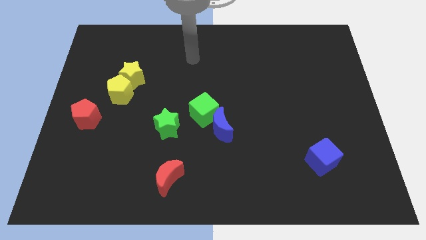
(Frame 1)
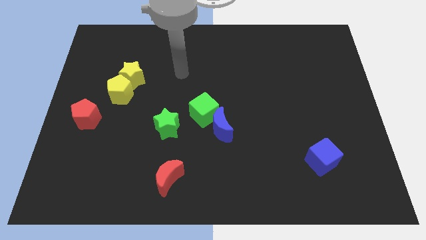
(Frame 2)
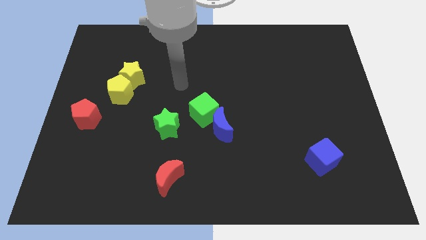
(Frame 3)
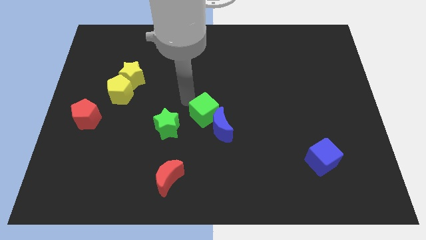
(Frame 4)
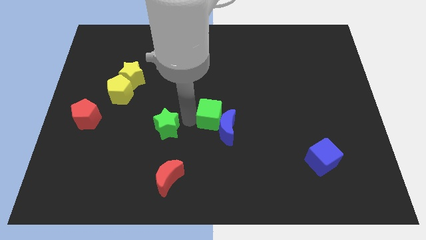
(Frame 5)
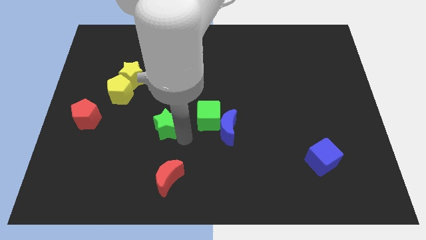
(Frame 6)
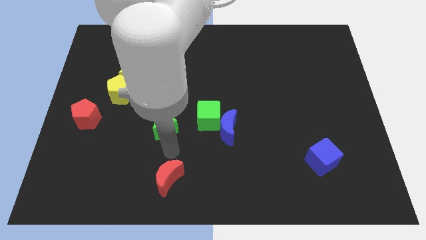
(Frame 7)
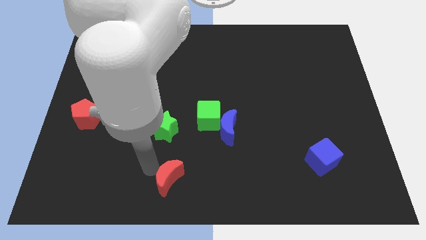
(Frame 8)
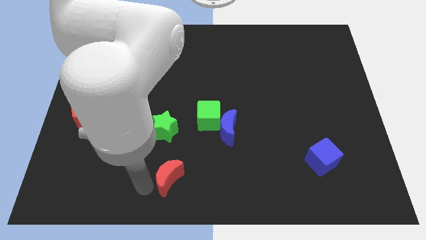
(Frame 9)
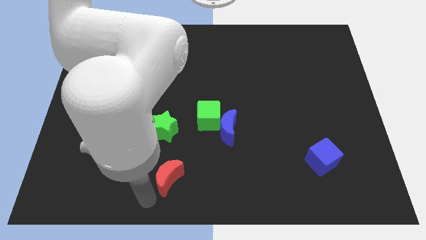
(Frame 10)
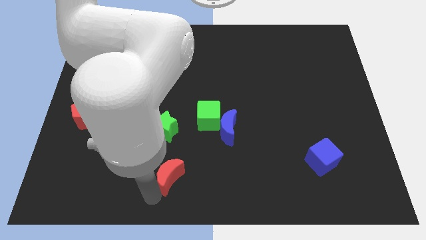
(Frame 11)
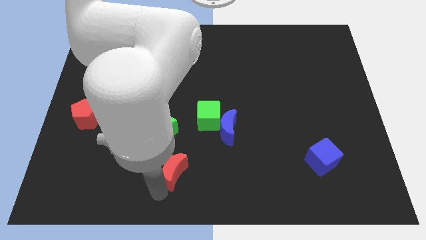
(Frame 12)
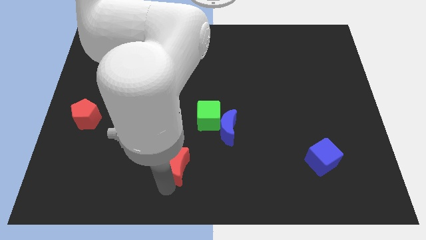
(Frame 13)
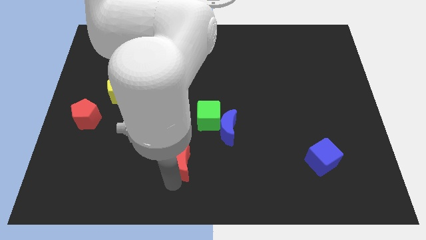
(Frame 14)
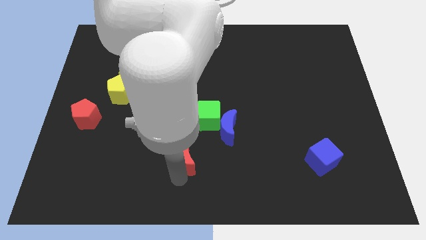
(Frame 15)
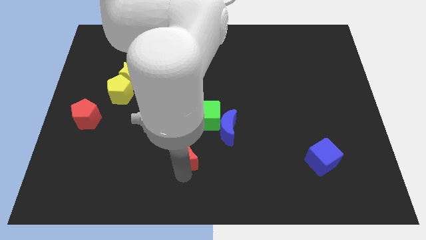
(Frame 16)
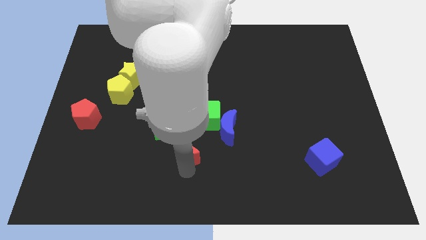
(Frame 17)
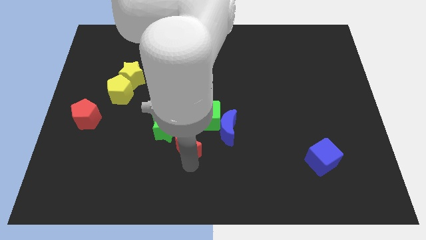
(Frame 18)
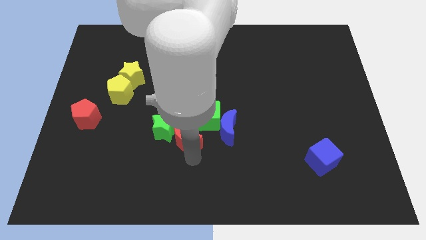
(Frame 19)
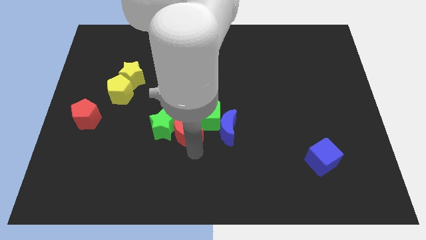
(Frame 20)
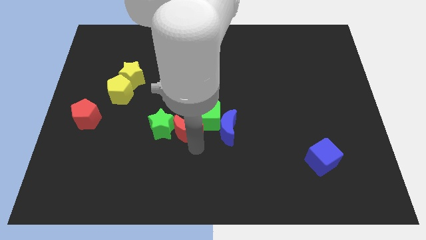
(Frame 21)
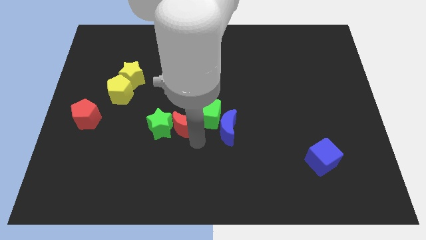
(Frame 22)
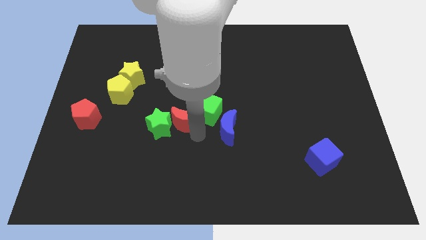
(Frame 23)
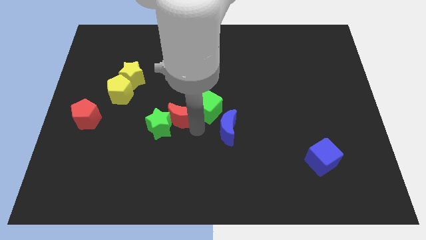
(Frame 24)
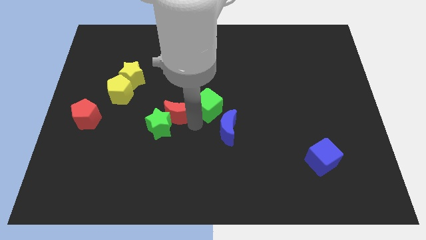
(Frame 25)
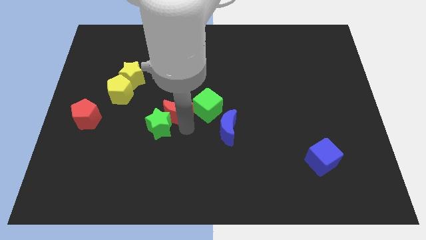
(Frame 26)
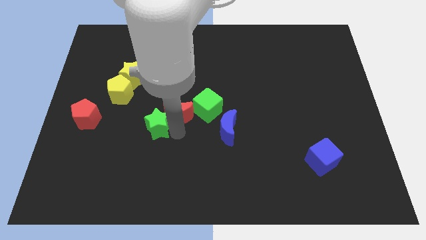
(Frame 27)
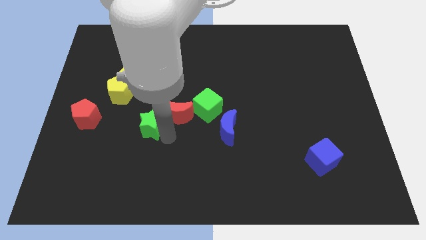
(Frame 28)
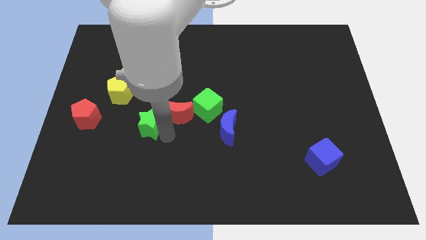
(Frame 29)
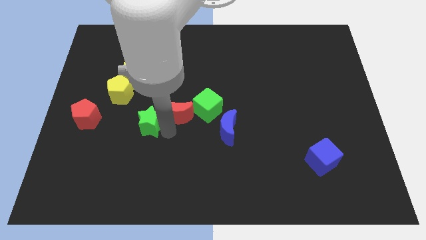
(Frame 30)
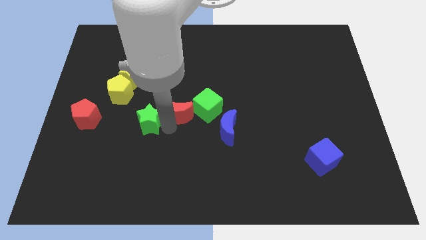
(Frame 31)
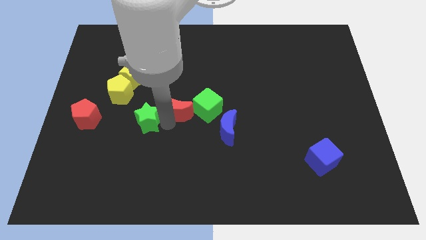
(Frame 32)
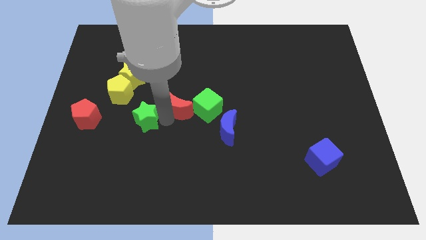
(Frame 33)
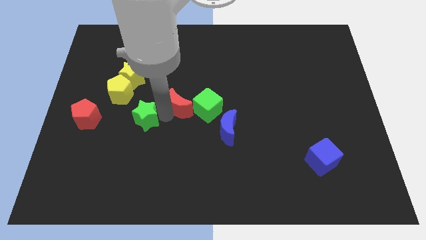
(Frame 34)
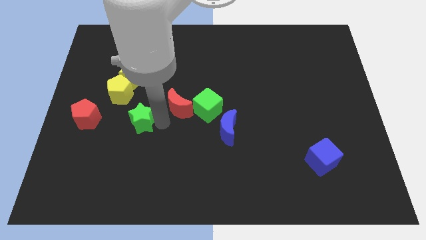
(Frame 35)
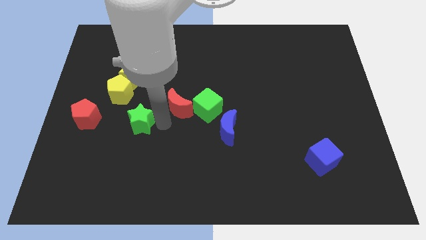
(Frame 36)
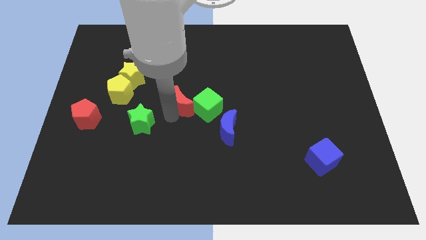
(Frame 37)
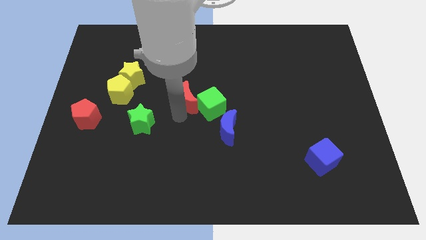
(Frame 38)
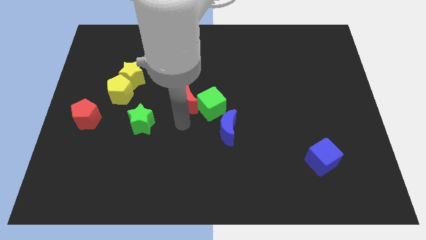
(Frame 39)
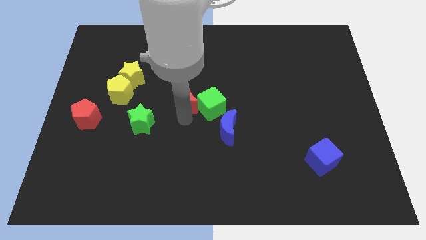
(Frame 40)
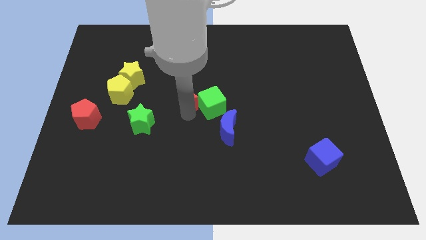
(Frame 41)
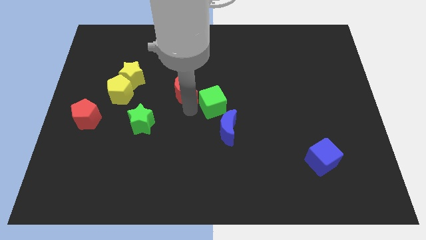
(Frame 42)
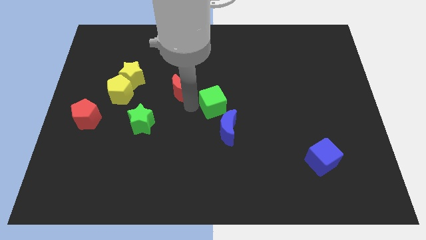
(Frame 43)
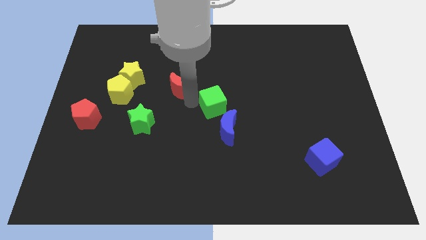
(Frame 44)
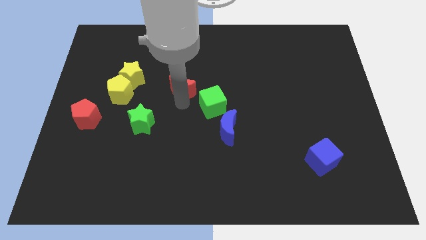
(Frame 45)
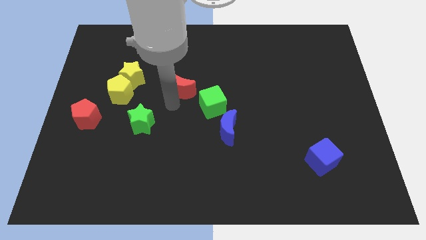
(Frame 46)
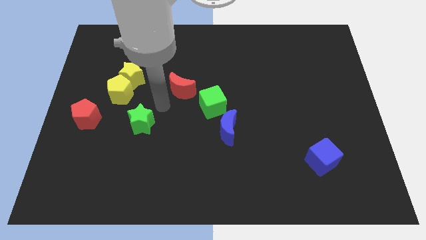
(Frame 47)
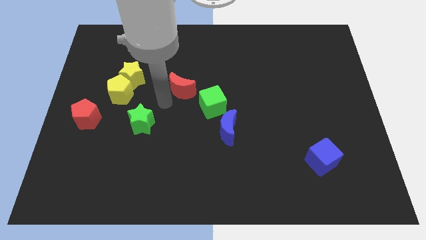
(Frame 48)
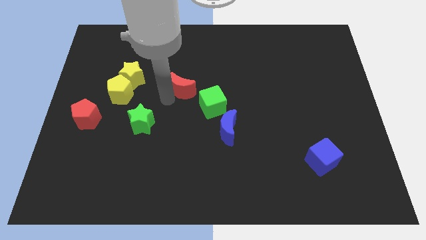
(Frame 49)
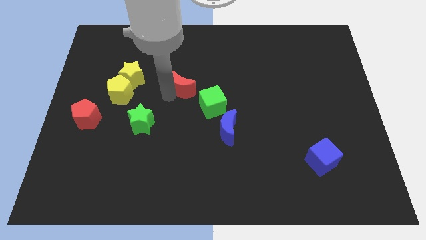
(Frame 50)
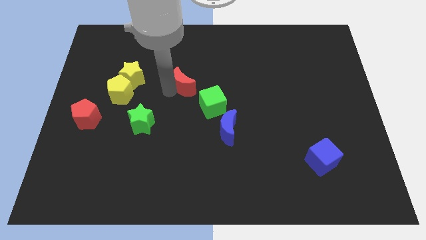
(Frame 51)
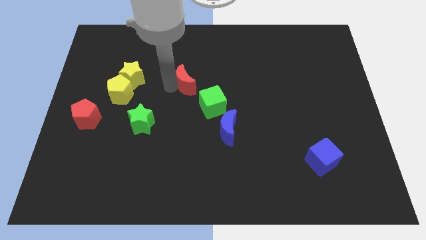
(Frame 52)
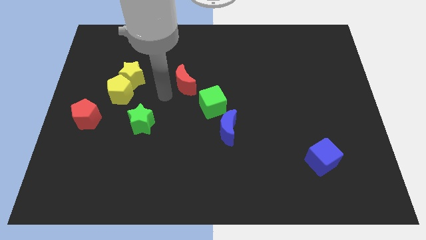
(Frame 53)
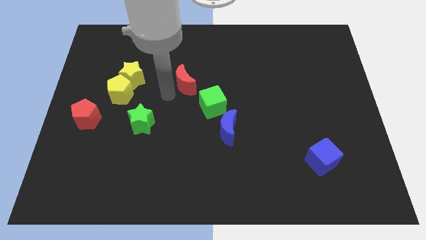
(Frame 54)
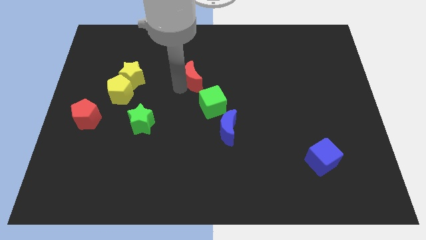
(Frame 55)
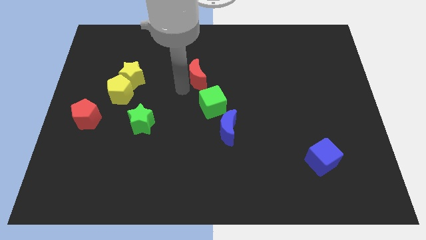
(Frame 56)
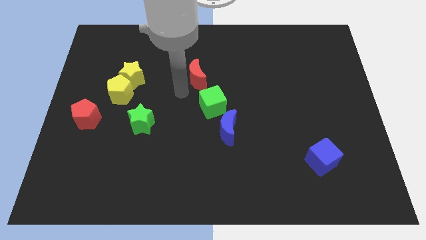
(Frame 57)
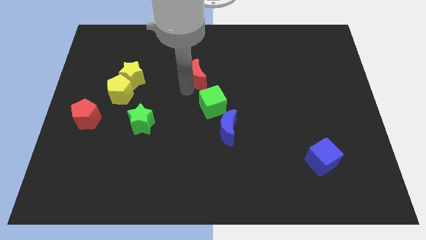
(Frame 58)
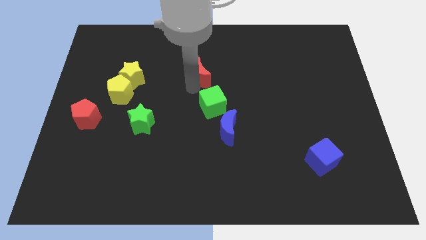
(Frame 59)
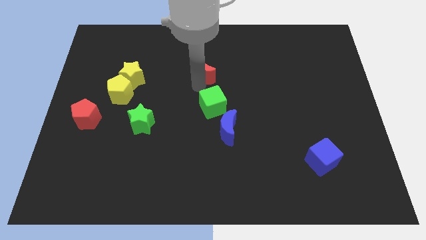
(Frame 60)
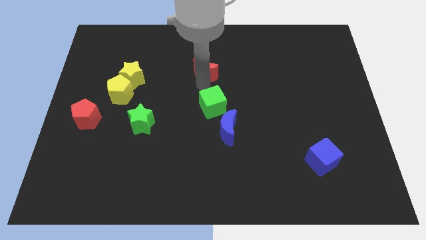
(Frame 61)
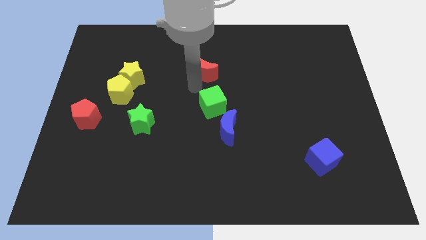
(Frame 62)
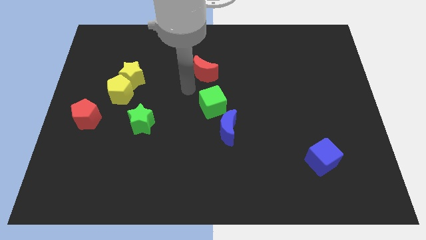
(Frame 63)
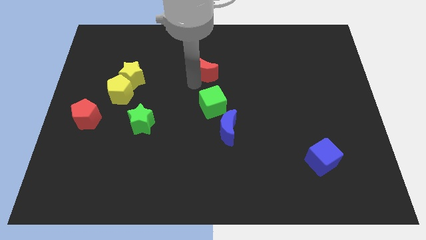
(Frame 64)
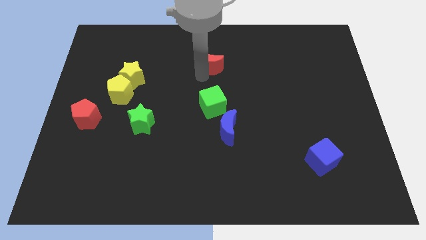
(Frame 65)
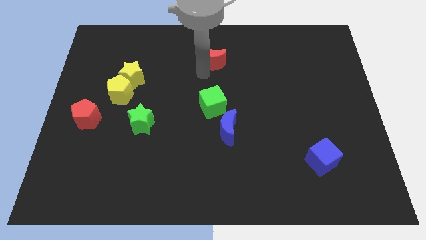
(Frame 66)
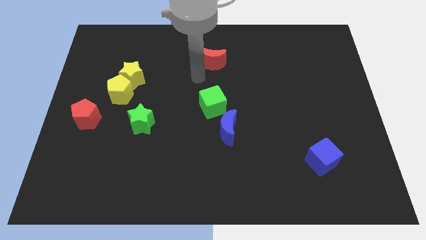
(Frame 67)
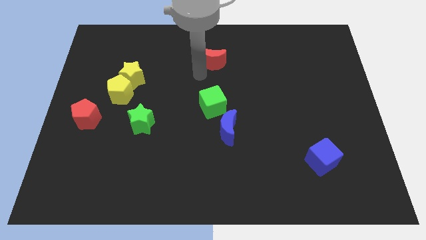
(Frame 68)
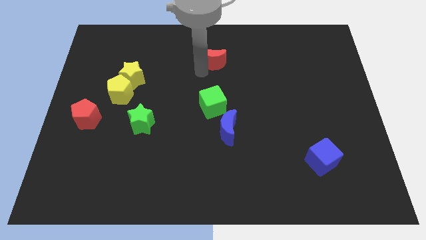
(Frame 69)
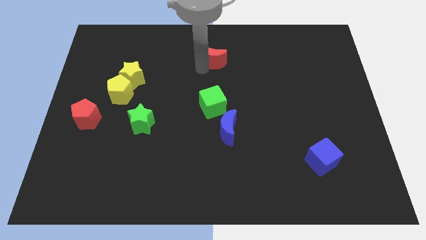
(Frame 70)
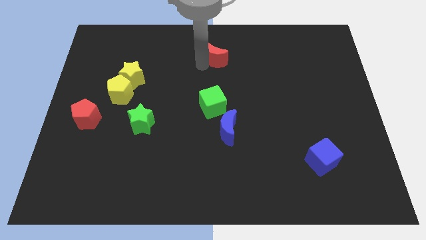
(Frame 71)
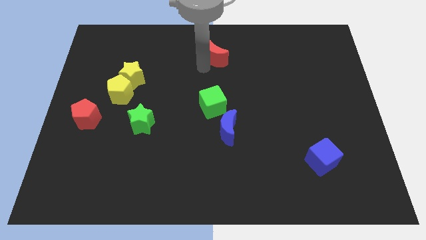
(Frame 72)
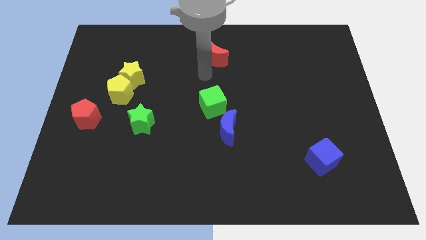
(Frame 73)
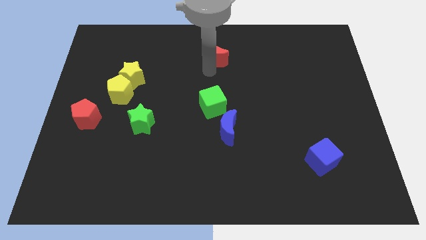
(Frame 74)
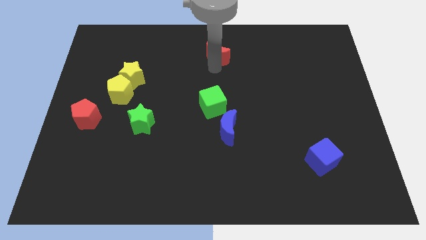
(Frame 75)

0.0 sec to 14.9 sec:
slide the red moon to the top
